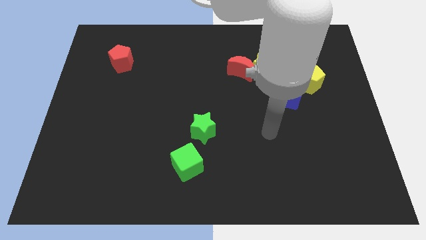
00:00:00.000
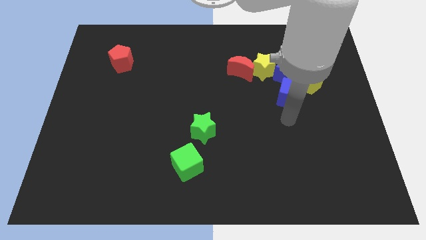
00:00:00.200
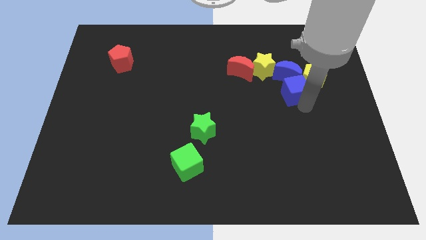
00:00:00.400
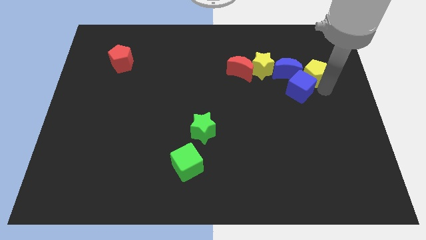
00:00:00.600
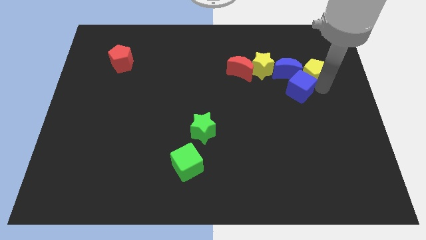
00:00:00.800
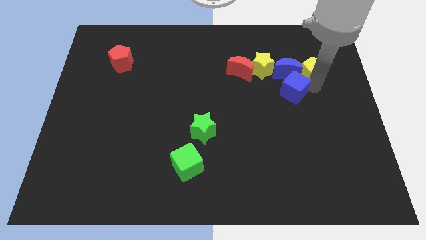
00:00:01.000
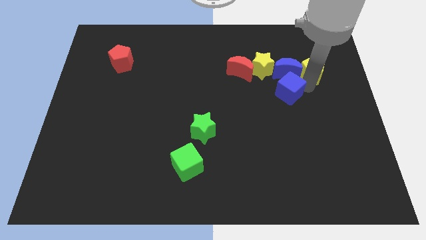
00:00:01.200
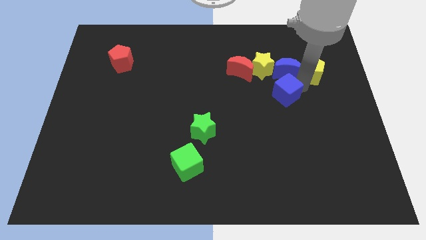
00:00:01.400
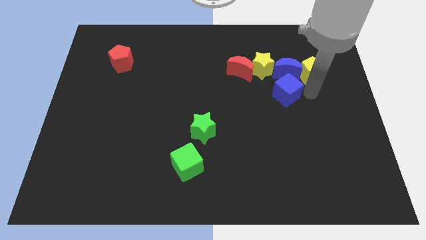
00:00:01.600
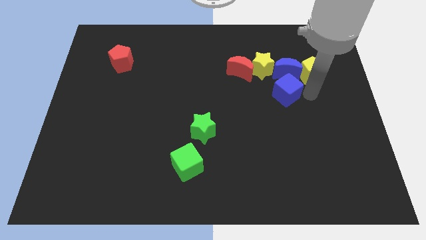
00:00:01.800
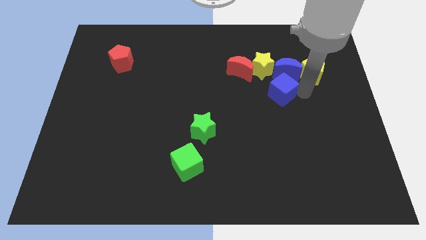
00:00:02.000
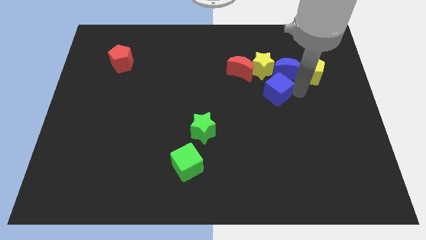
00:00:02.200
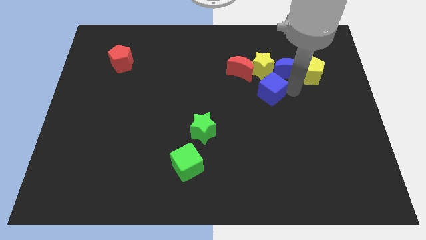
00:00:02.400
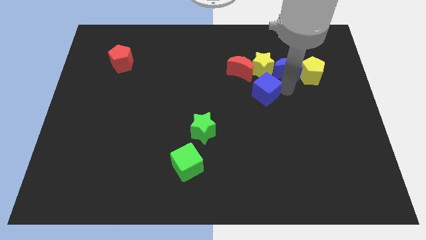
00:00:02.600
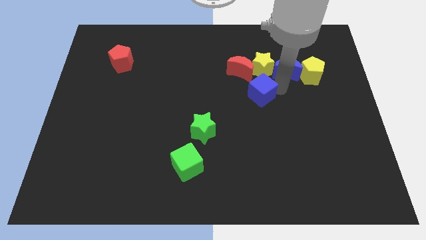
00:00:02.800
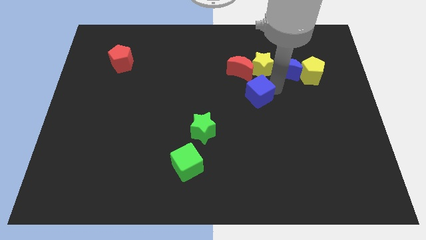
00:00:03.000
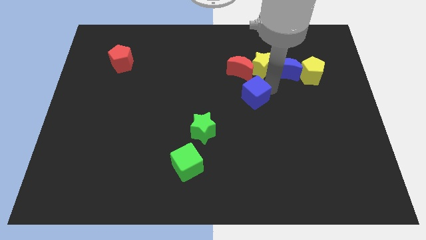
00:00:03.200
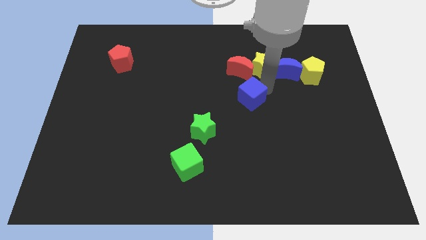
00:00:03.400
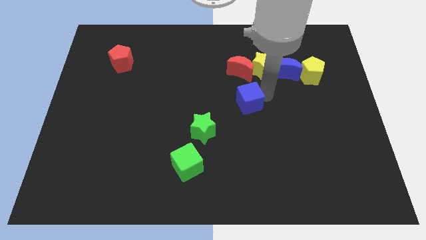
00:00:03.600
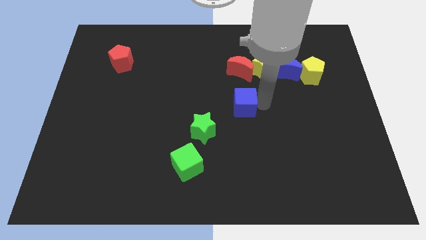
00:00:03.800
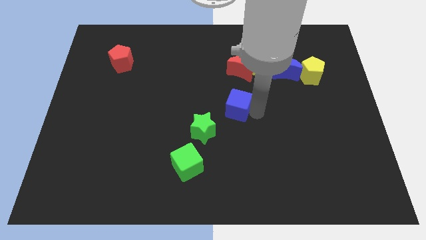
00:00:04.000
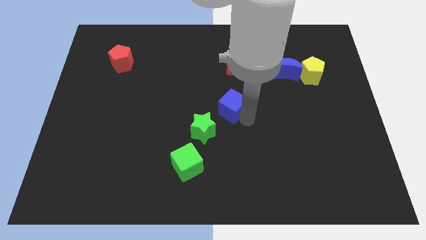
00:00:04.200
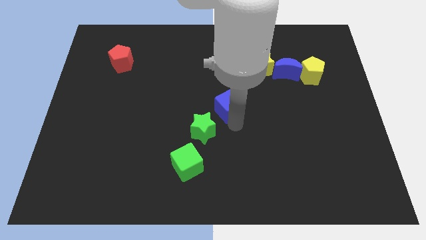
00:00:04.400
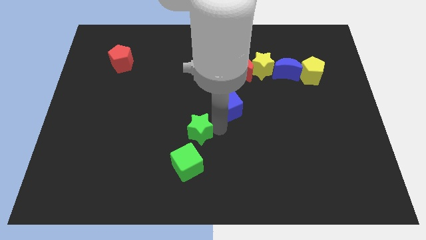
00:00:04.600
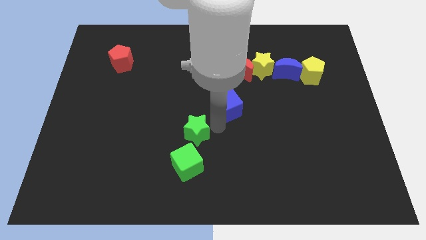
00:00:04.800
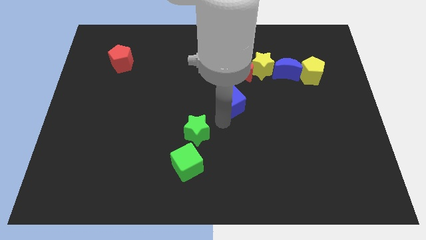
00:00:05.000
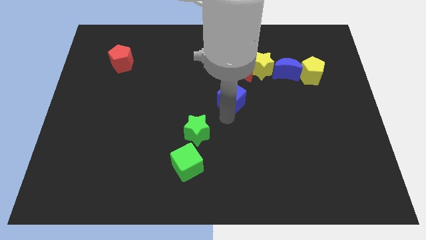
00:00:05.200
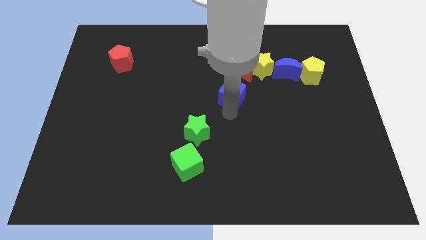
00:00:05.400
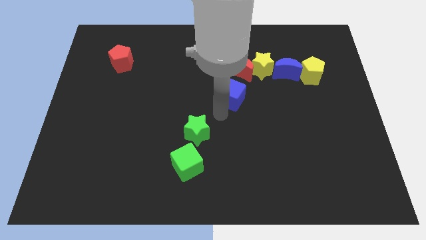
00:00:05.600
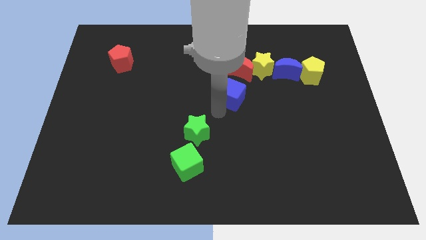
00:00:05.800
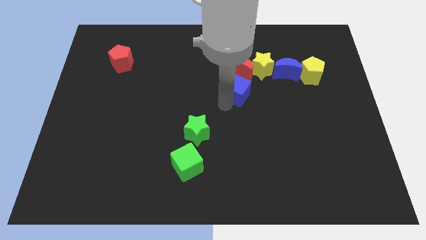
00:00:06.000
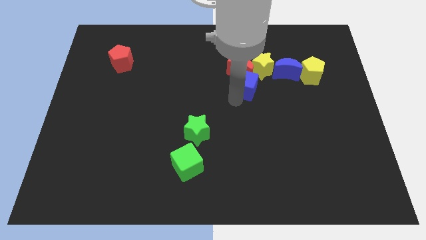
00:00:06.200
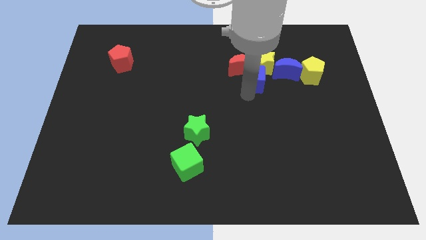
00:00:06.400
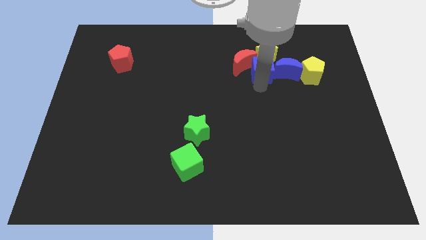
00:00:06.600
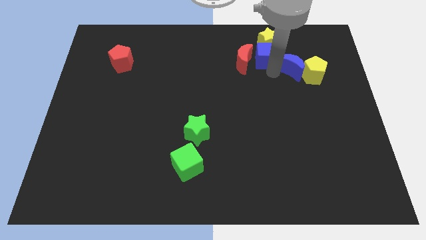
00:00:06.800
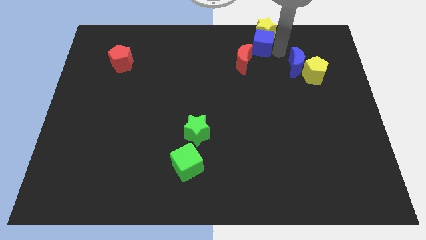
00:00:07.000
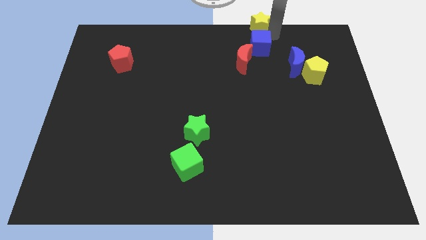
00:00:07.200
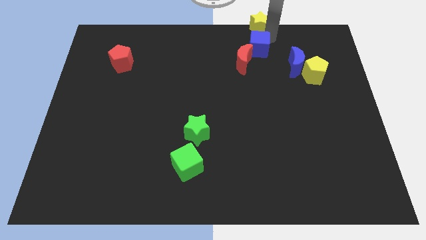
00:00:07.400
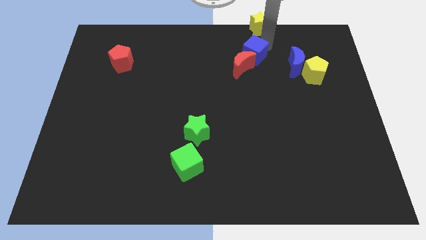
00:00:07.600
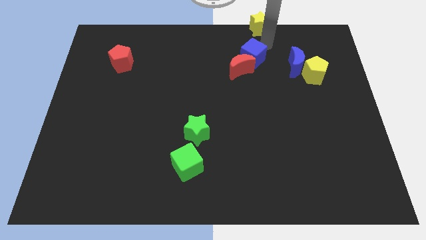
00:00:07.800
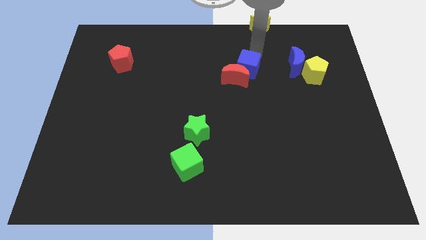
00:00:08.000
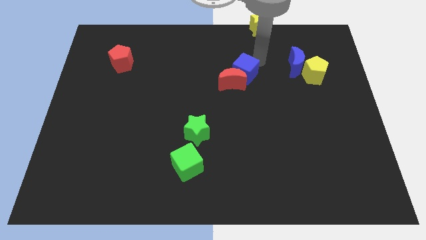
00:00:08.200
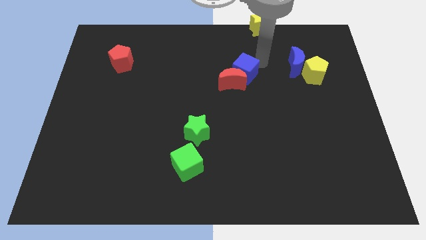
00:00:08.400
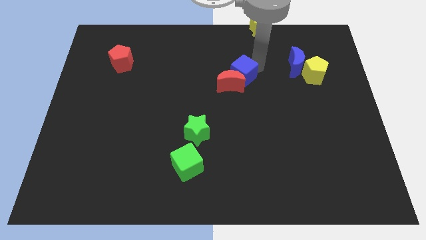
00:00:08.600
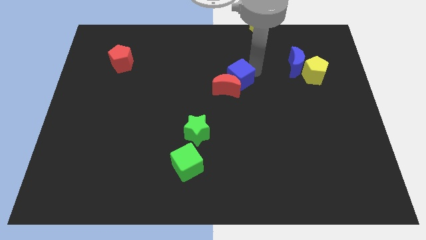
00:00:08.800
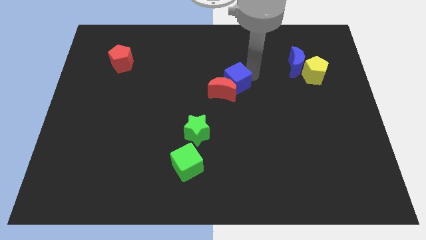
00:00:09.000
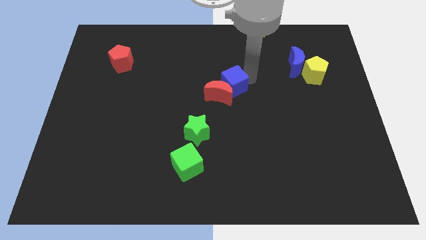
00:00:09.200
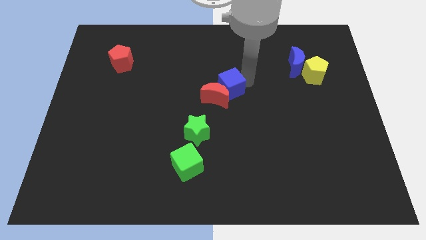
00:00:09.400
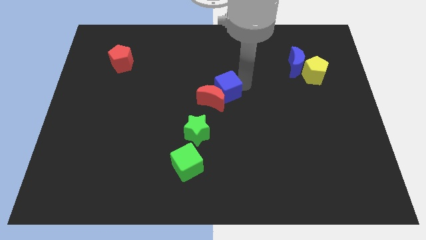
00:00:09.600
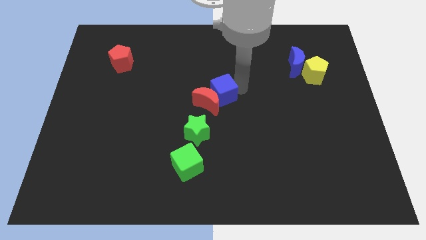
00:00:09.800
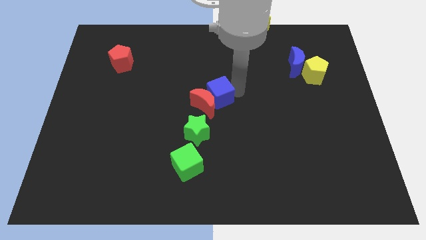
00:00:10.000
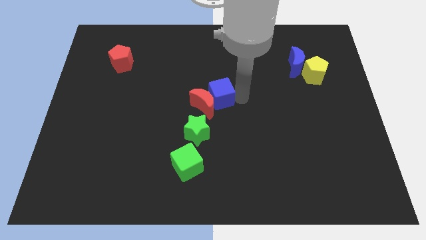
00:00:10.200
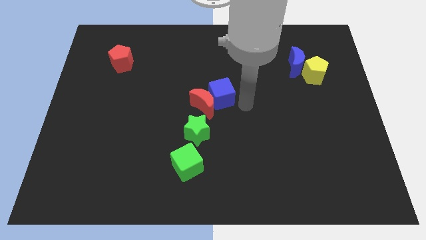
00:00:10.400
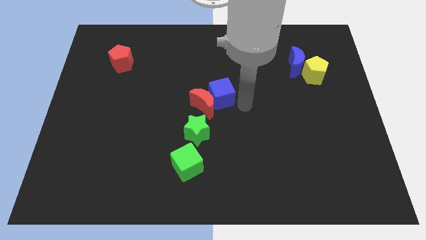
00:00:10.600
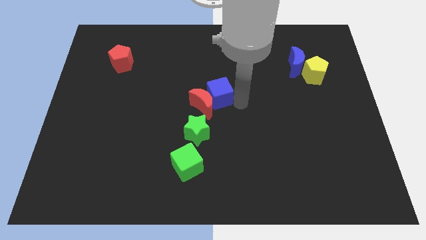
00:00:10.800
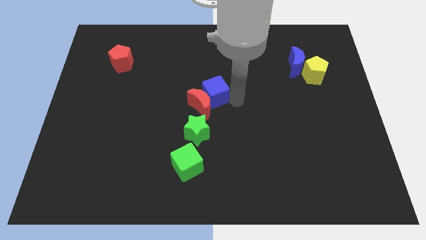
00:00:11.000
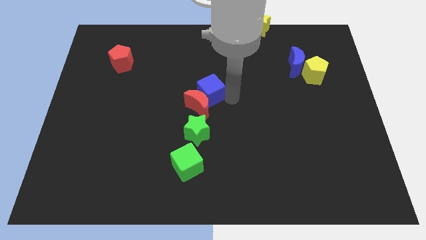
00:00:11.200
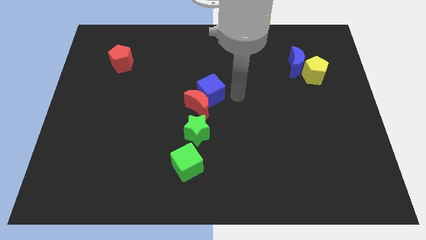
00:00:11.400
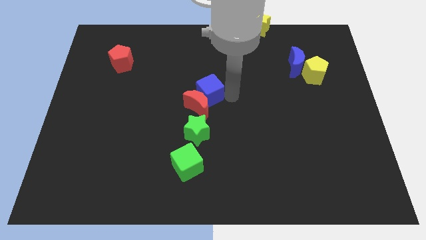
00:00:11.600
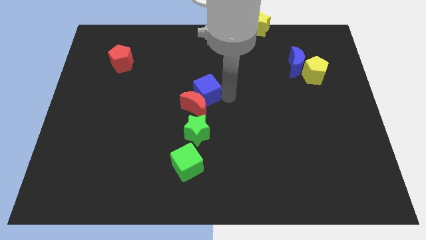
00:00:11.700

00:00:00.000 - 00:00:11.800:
slide the blue cube left

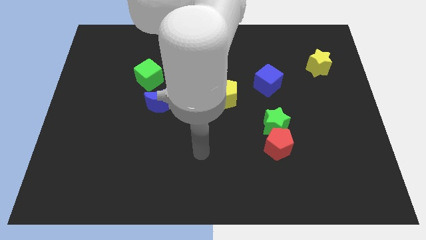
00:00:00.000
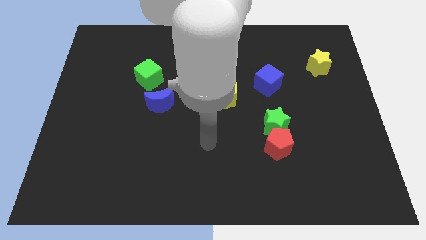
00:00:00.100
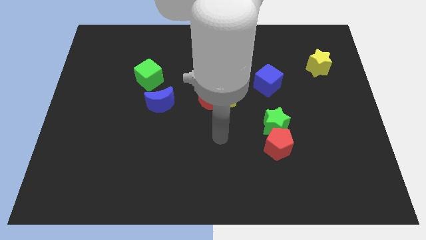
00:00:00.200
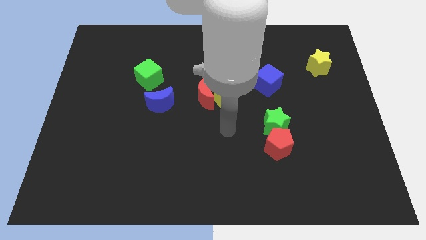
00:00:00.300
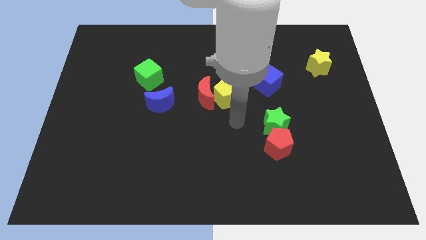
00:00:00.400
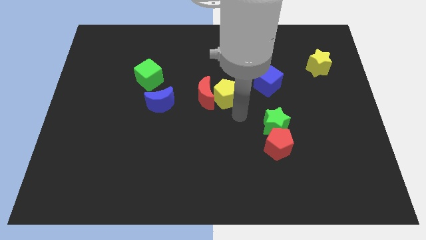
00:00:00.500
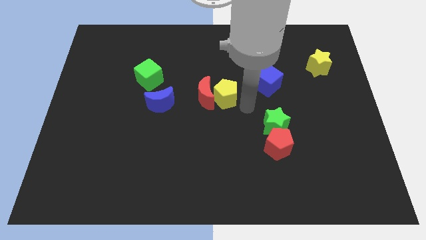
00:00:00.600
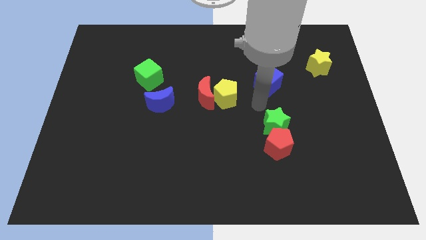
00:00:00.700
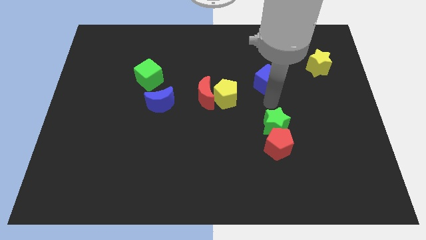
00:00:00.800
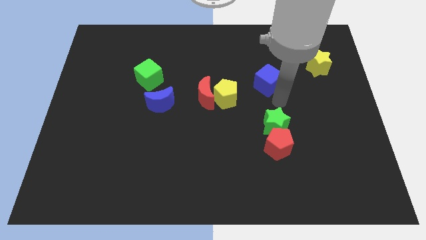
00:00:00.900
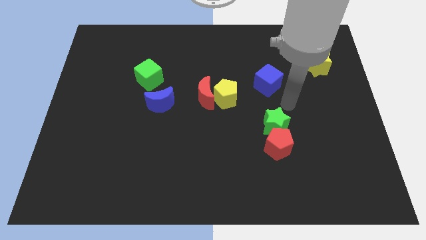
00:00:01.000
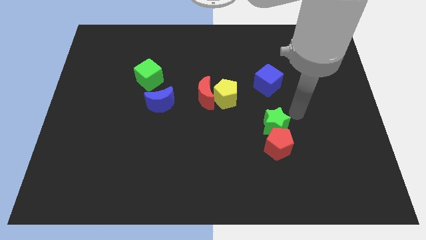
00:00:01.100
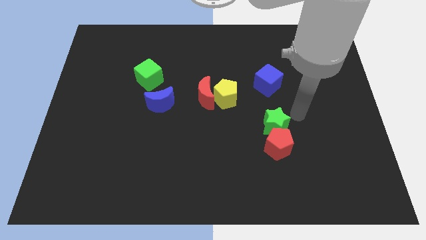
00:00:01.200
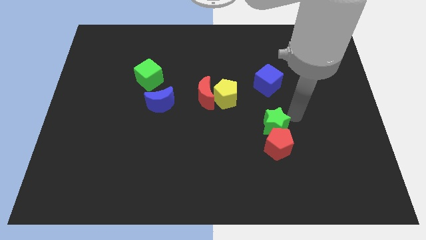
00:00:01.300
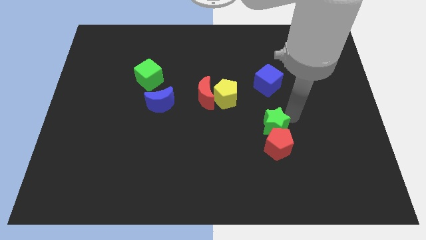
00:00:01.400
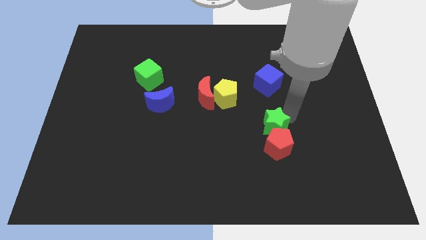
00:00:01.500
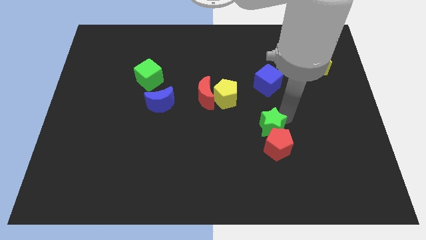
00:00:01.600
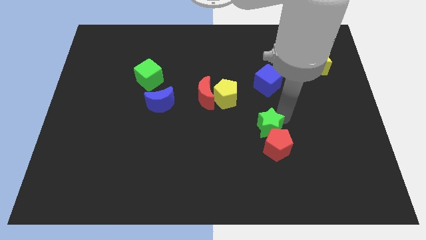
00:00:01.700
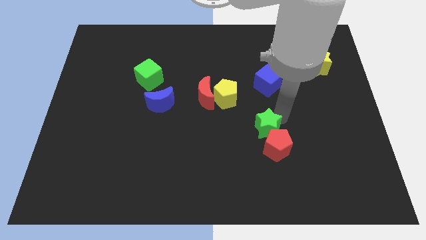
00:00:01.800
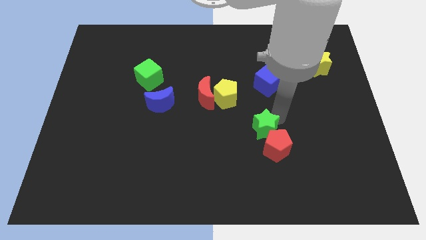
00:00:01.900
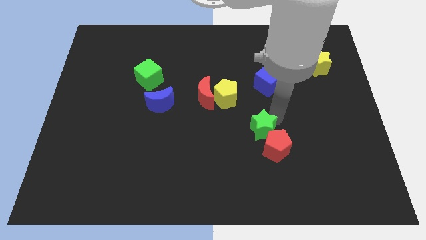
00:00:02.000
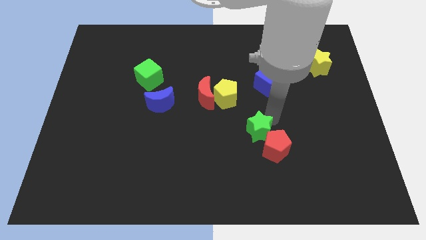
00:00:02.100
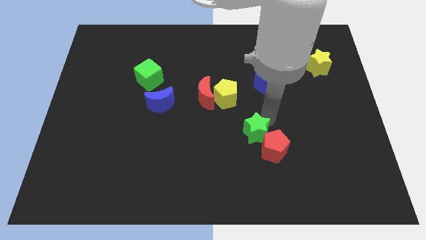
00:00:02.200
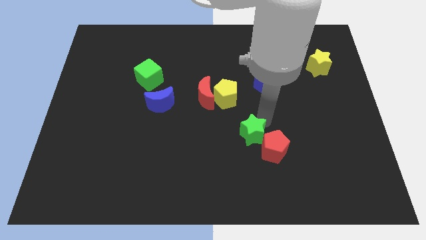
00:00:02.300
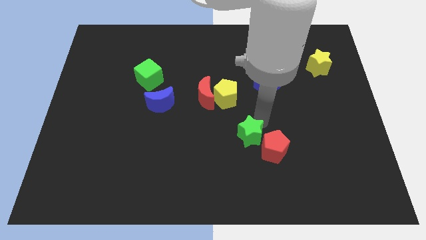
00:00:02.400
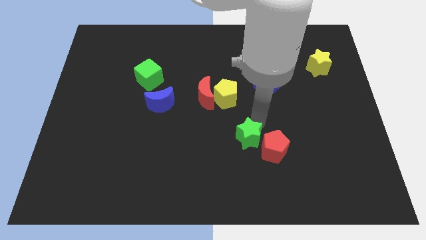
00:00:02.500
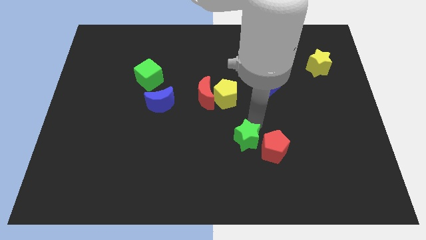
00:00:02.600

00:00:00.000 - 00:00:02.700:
slightly push the green star downwards and left diagonally
